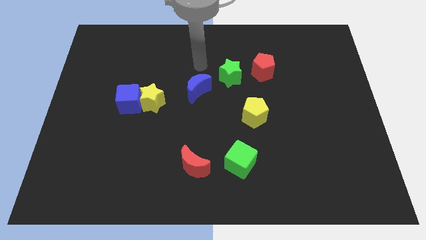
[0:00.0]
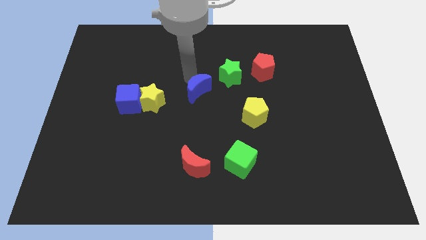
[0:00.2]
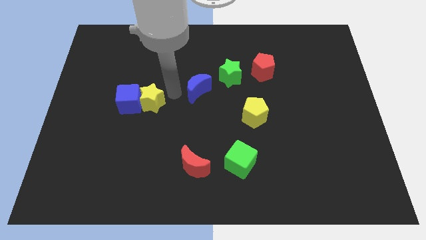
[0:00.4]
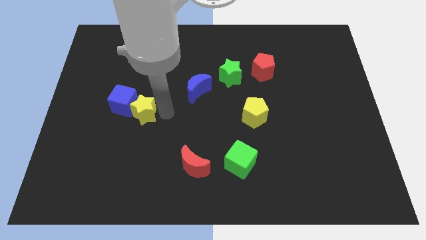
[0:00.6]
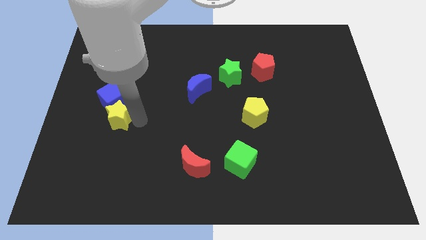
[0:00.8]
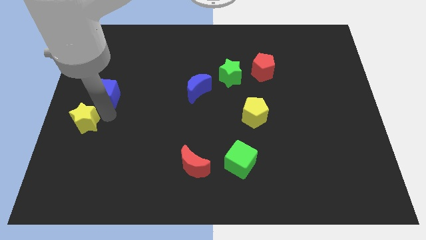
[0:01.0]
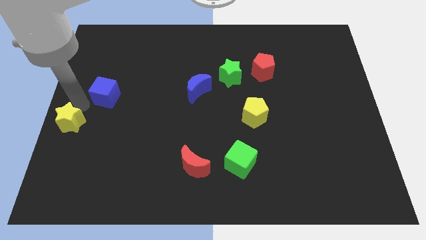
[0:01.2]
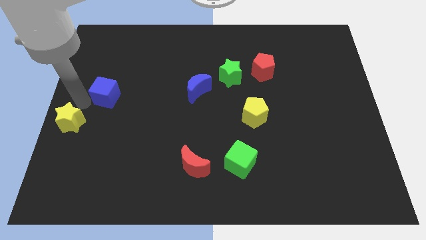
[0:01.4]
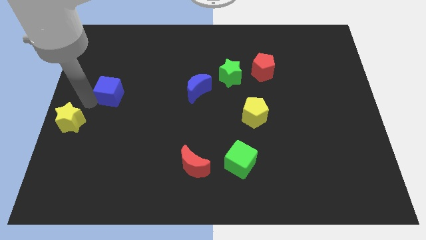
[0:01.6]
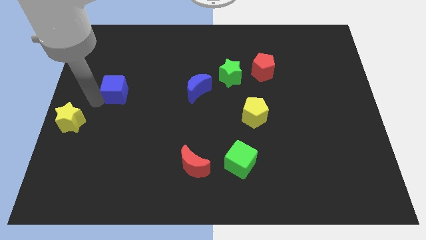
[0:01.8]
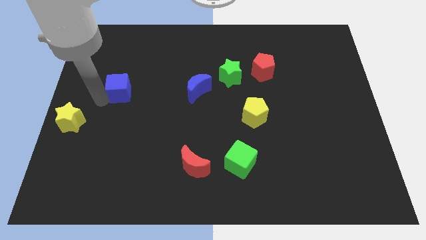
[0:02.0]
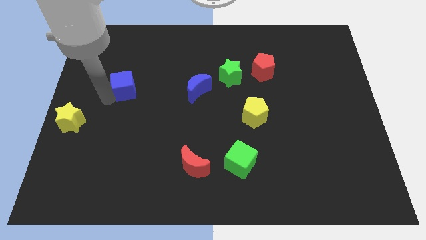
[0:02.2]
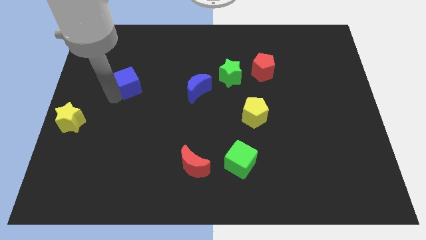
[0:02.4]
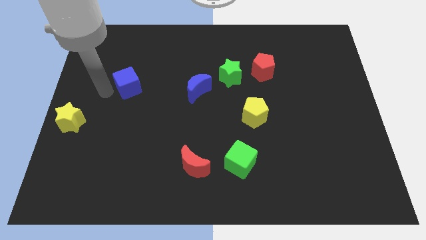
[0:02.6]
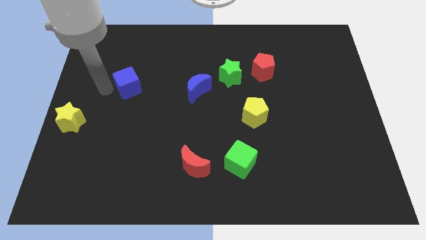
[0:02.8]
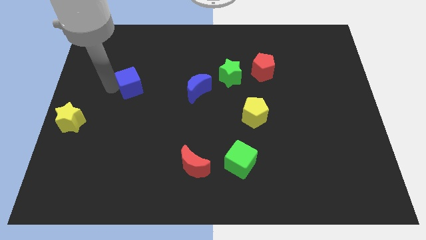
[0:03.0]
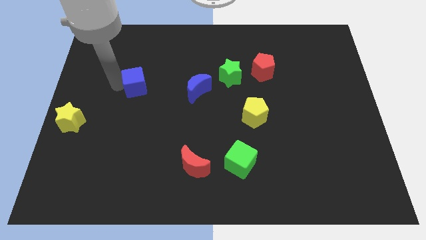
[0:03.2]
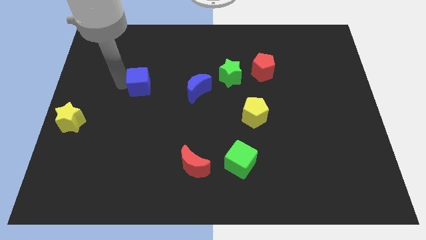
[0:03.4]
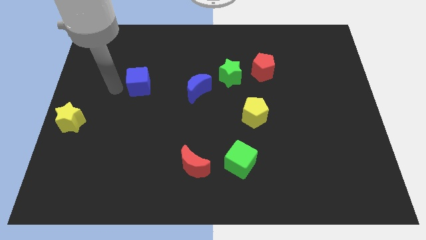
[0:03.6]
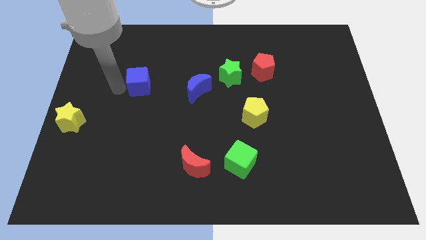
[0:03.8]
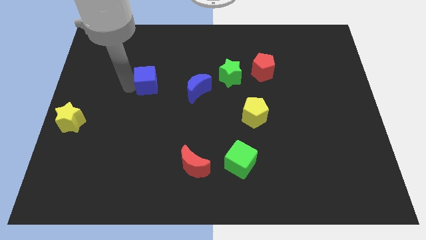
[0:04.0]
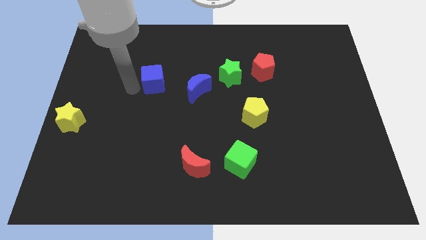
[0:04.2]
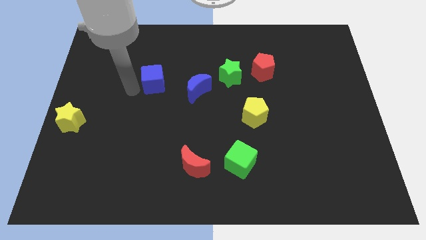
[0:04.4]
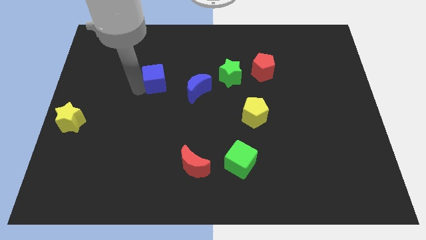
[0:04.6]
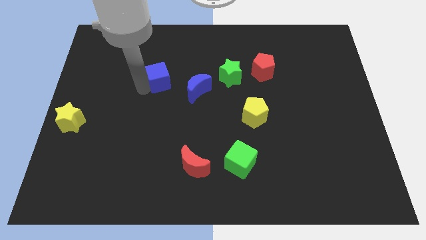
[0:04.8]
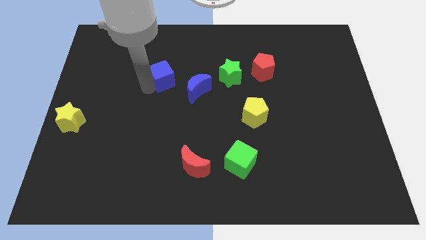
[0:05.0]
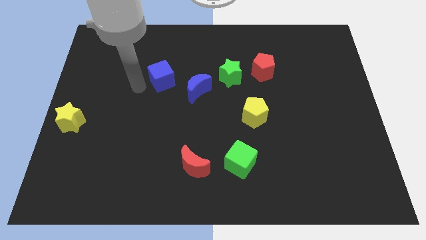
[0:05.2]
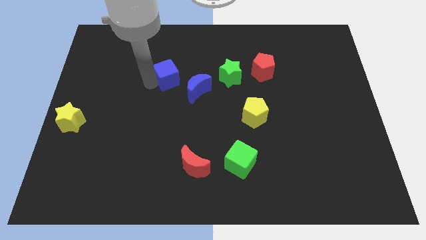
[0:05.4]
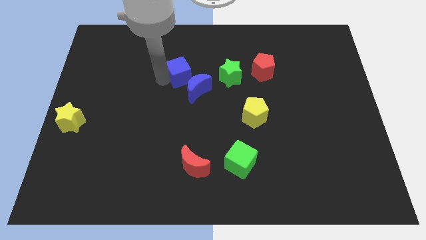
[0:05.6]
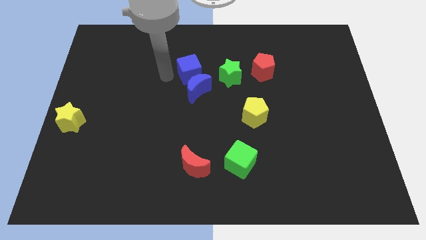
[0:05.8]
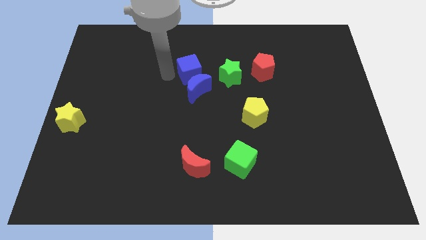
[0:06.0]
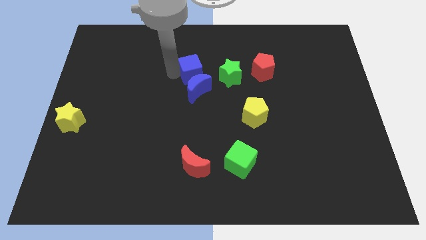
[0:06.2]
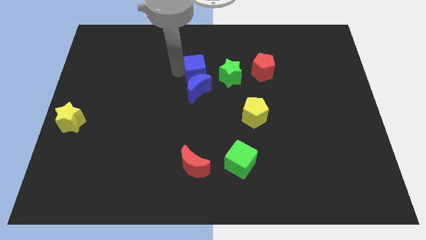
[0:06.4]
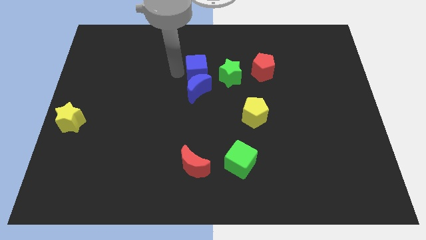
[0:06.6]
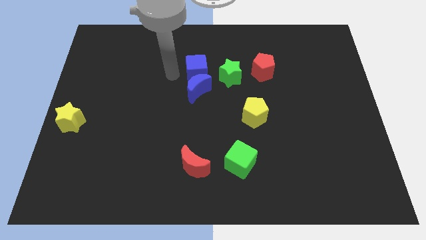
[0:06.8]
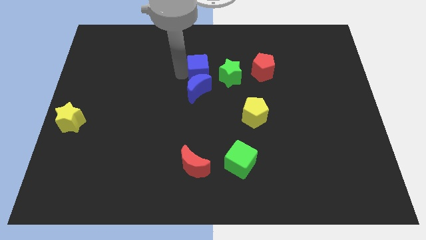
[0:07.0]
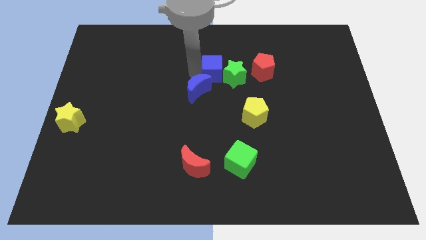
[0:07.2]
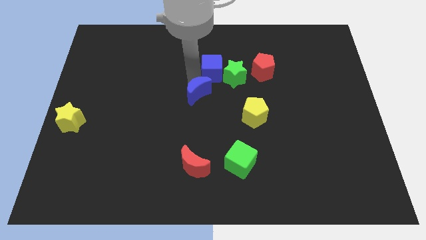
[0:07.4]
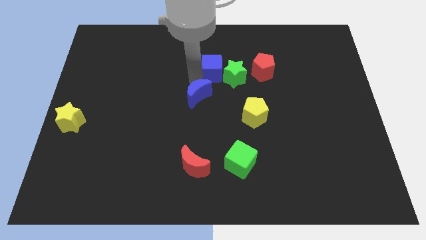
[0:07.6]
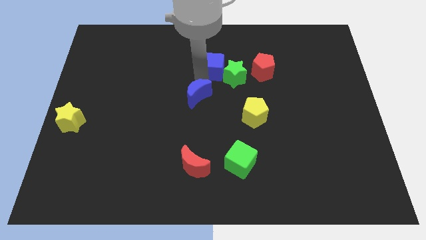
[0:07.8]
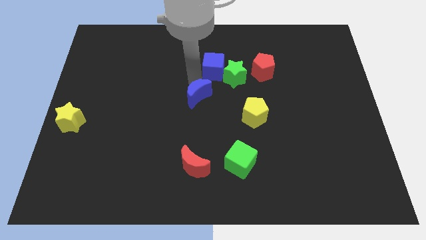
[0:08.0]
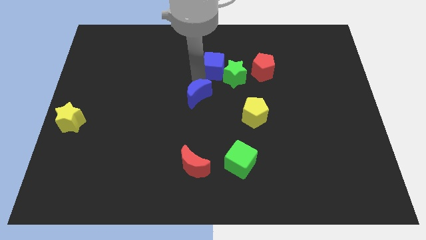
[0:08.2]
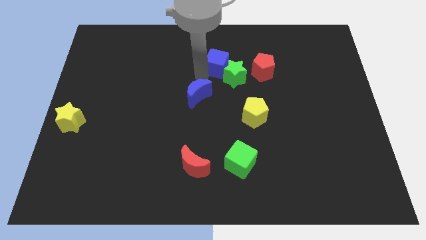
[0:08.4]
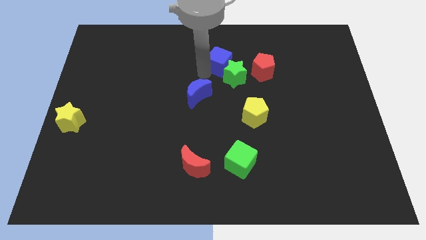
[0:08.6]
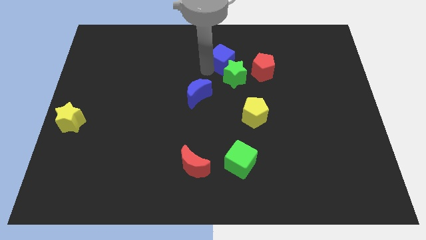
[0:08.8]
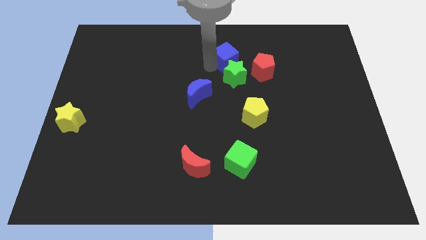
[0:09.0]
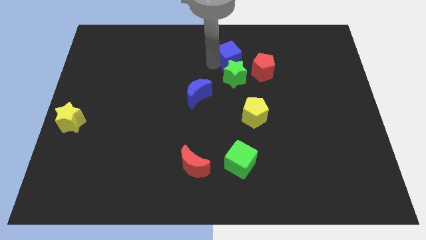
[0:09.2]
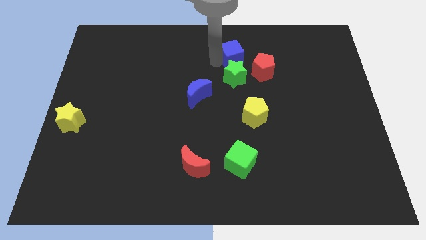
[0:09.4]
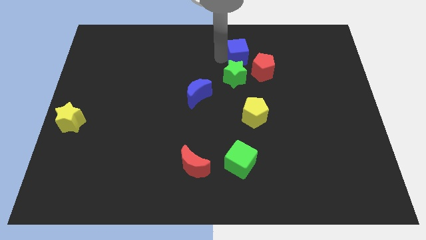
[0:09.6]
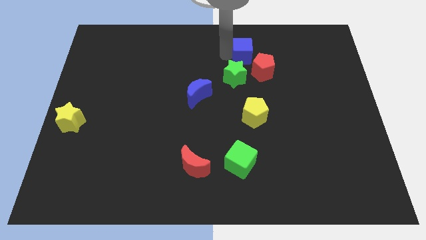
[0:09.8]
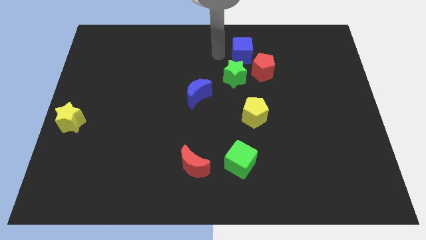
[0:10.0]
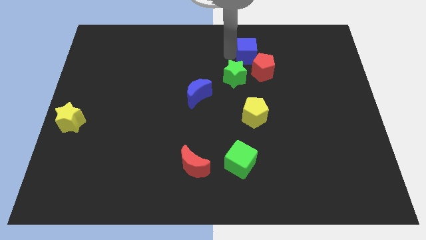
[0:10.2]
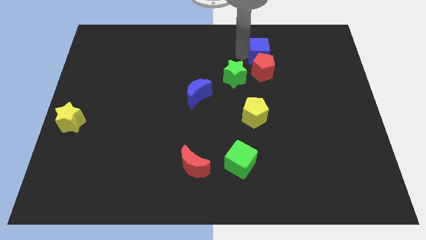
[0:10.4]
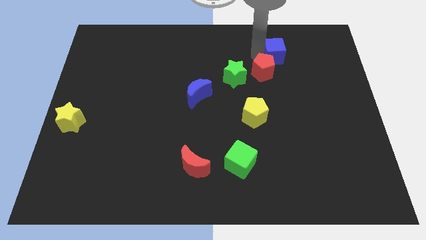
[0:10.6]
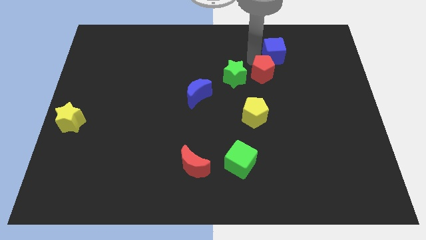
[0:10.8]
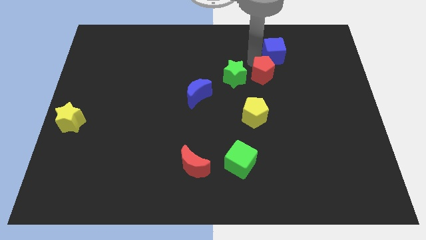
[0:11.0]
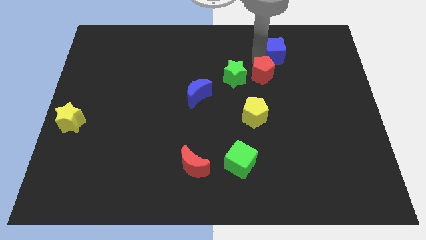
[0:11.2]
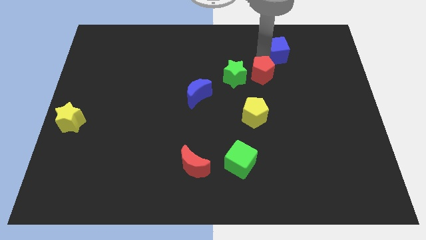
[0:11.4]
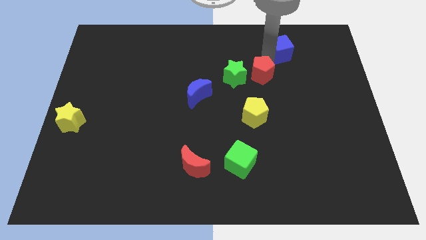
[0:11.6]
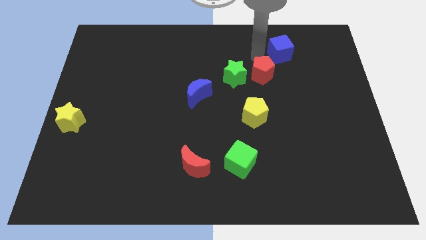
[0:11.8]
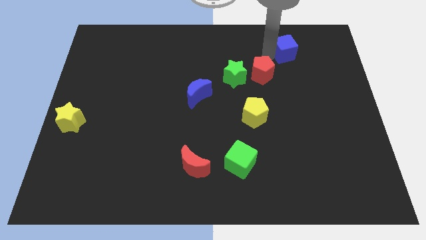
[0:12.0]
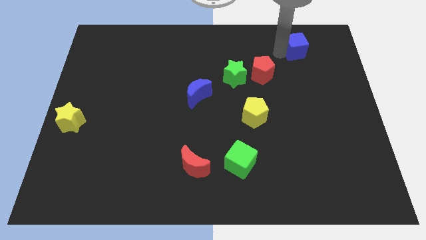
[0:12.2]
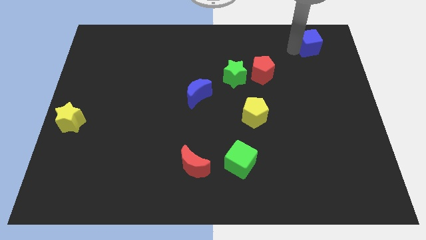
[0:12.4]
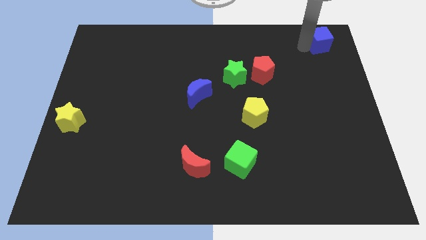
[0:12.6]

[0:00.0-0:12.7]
push the blue cube to the upper right corner
